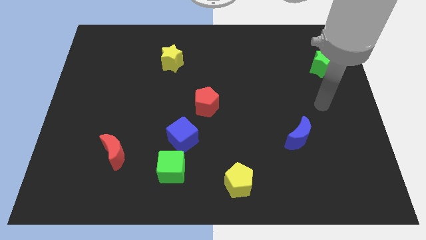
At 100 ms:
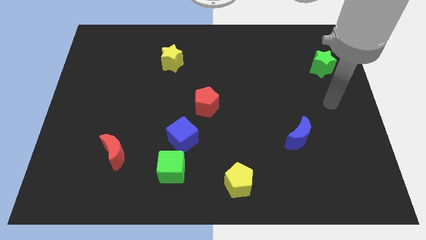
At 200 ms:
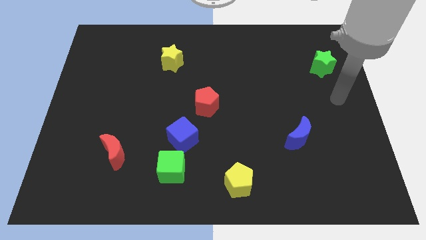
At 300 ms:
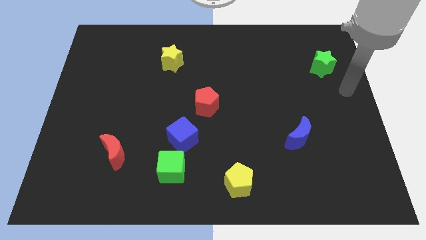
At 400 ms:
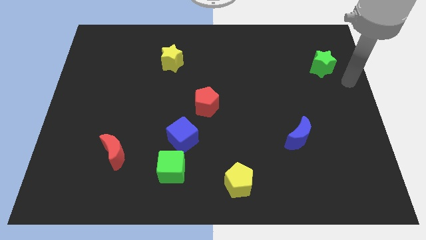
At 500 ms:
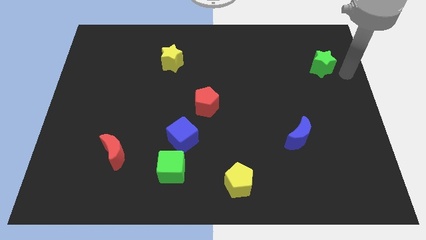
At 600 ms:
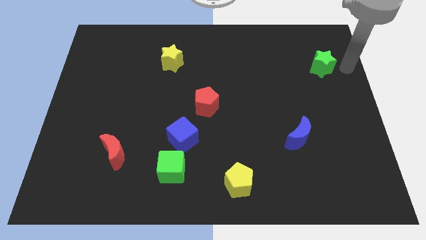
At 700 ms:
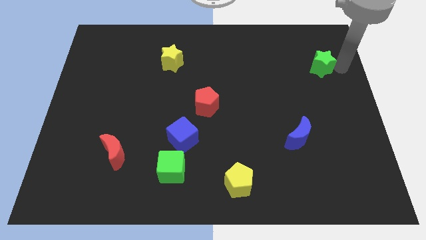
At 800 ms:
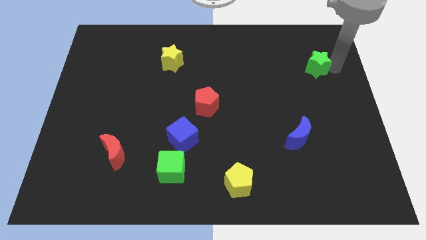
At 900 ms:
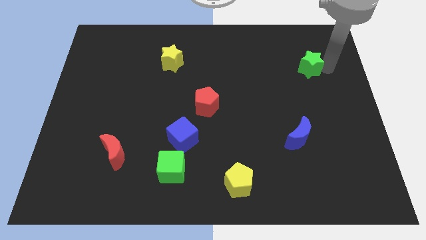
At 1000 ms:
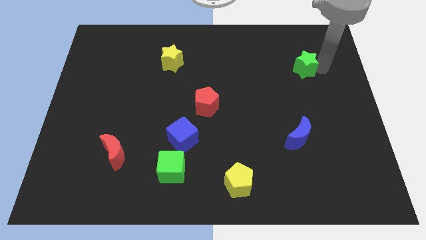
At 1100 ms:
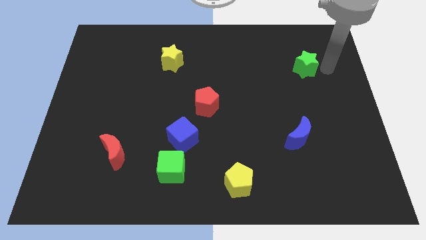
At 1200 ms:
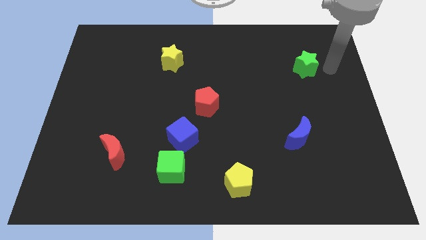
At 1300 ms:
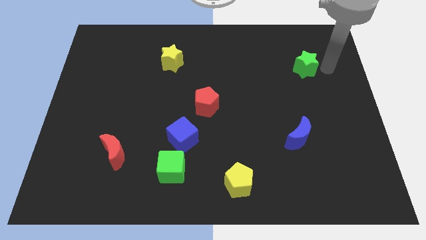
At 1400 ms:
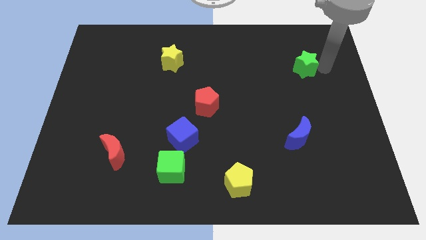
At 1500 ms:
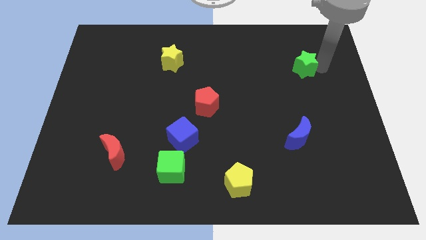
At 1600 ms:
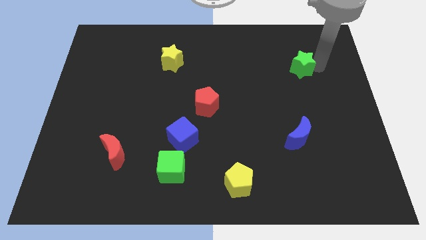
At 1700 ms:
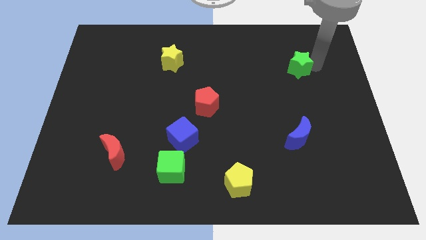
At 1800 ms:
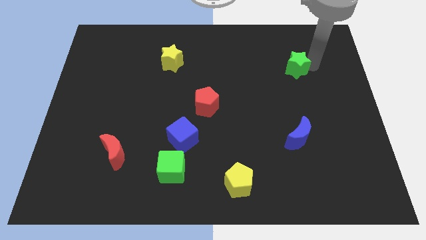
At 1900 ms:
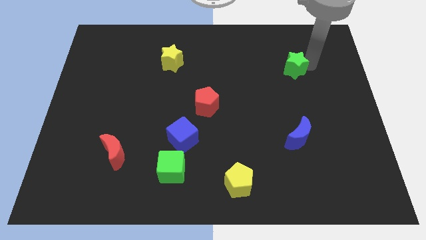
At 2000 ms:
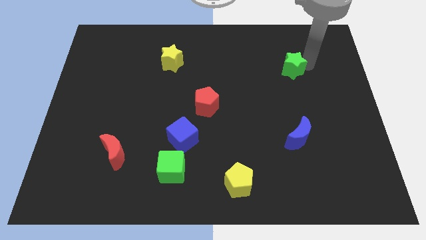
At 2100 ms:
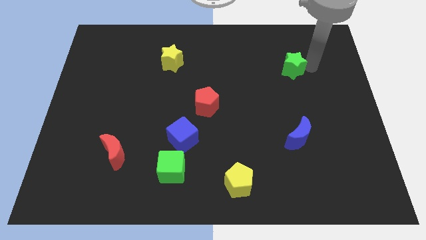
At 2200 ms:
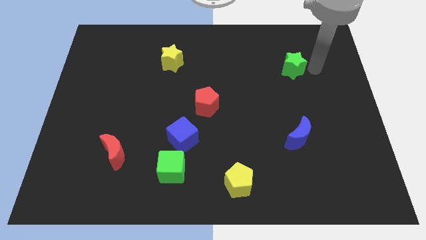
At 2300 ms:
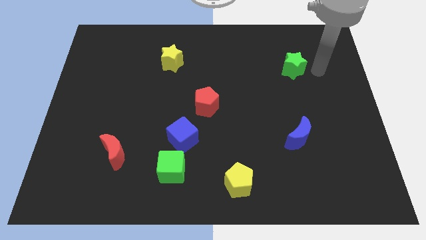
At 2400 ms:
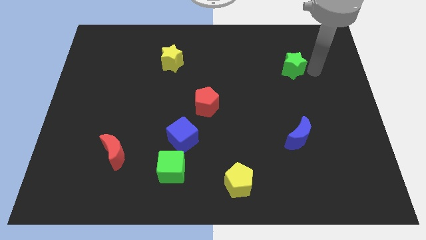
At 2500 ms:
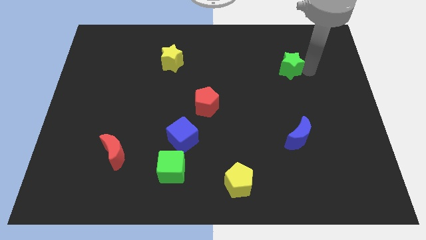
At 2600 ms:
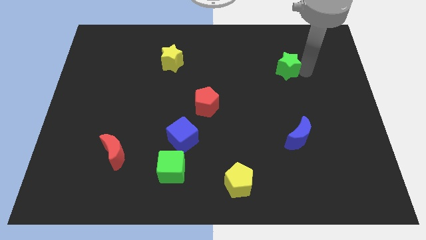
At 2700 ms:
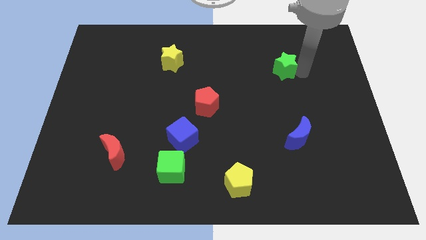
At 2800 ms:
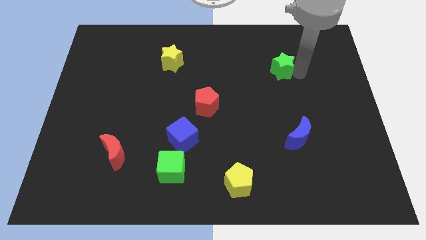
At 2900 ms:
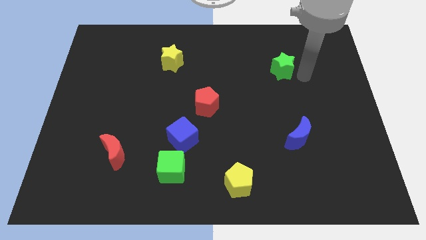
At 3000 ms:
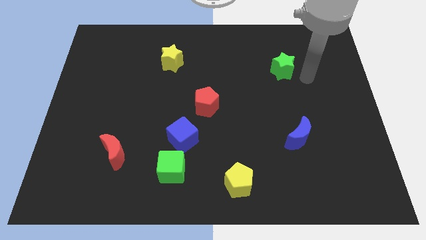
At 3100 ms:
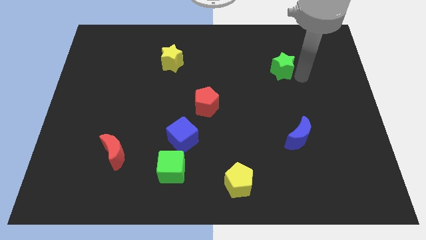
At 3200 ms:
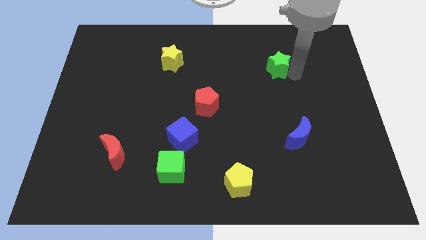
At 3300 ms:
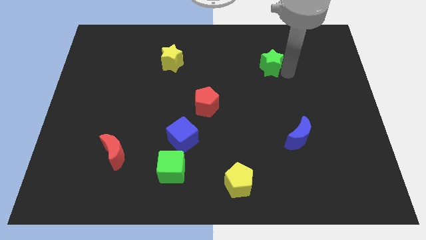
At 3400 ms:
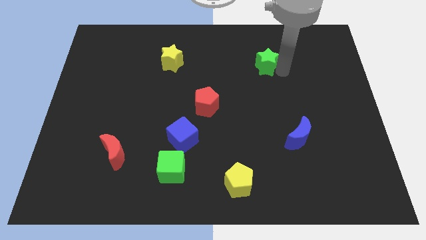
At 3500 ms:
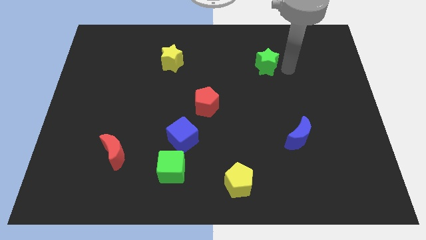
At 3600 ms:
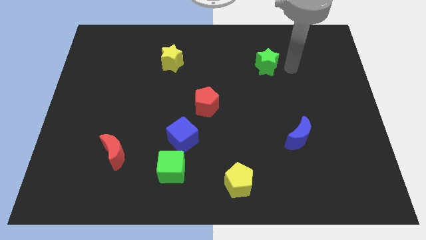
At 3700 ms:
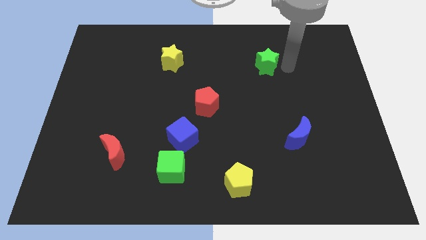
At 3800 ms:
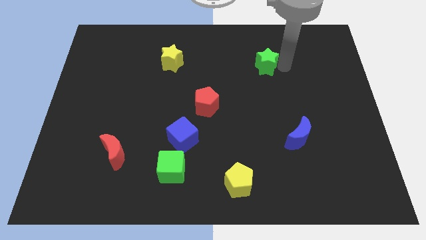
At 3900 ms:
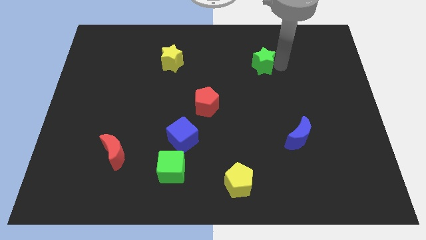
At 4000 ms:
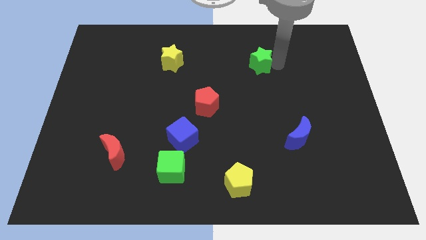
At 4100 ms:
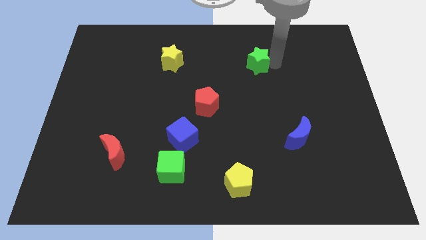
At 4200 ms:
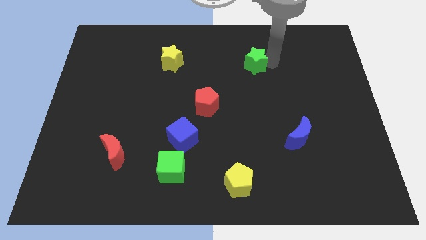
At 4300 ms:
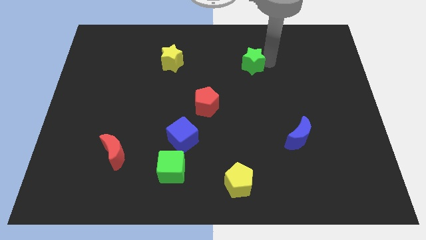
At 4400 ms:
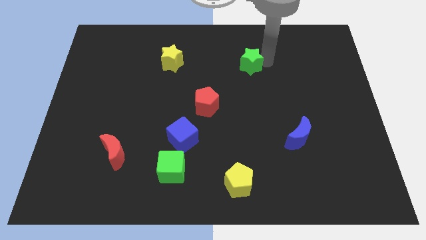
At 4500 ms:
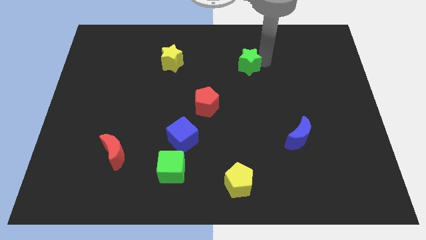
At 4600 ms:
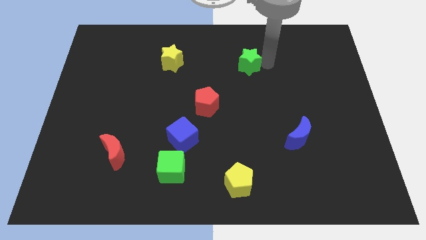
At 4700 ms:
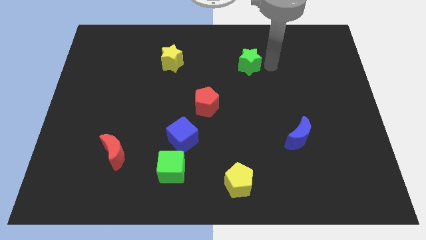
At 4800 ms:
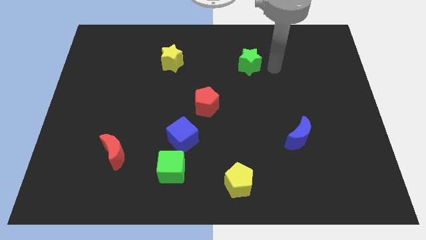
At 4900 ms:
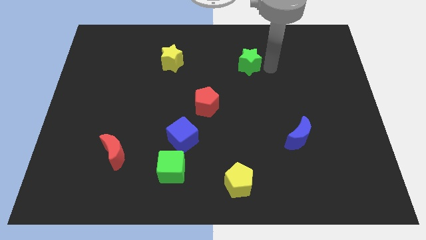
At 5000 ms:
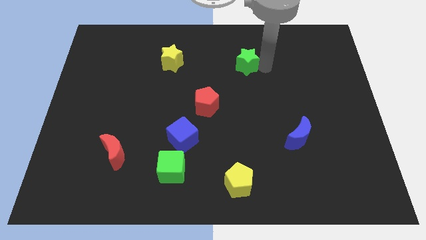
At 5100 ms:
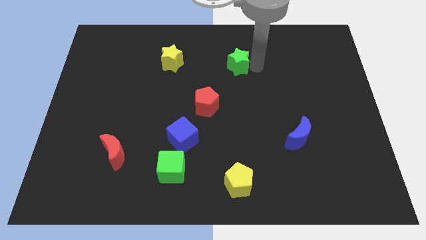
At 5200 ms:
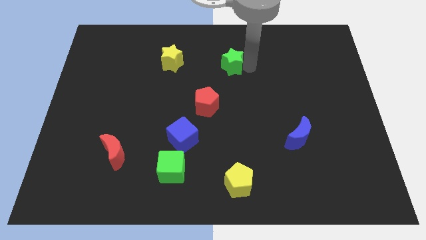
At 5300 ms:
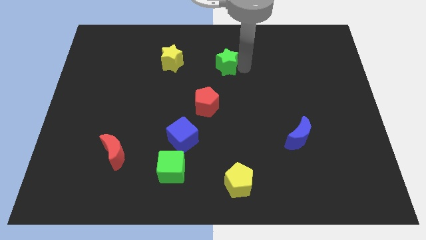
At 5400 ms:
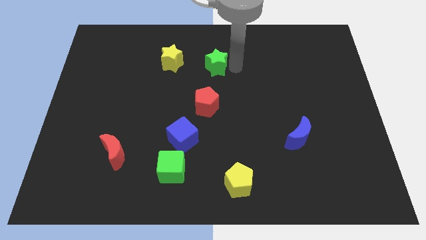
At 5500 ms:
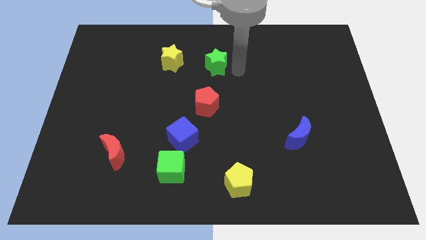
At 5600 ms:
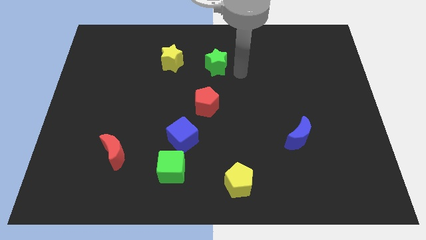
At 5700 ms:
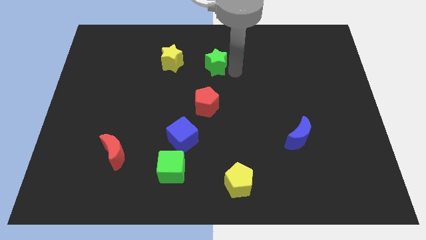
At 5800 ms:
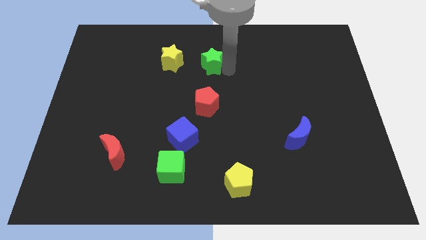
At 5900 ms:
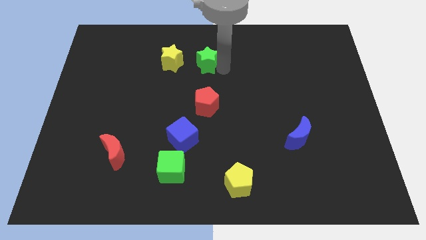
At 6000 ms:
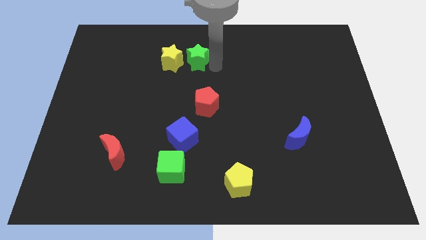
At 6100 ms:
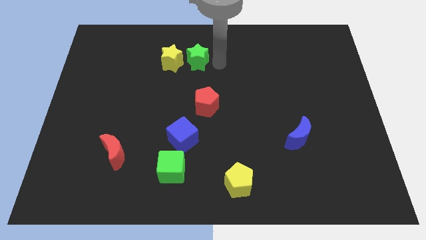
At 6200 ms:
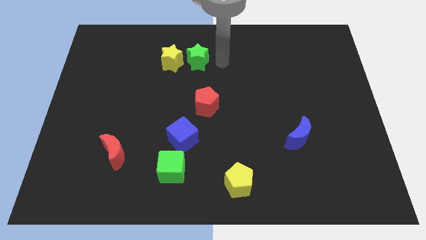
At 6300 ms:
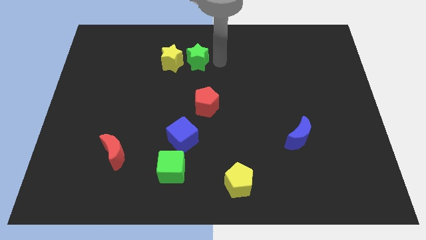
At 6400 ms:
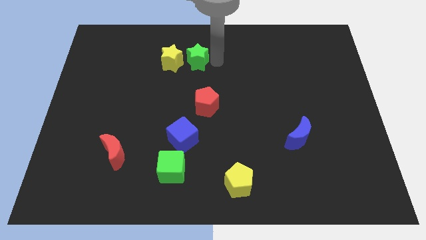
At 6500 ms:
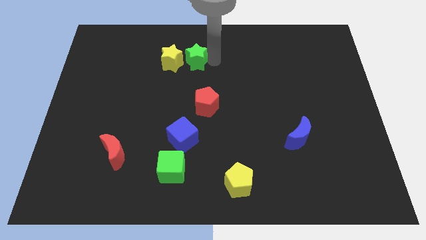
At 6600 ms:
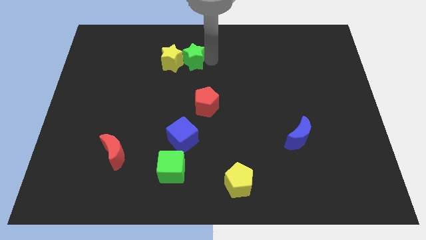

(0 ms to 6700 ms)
move the green star to the yellow star
